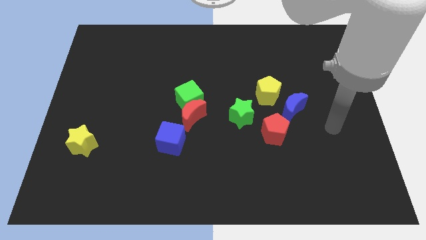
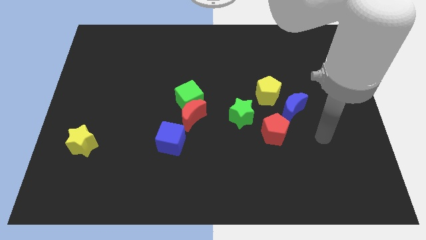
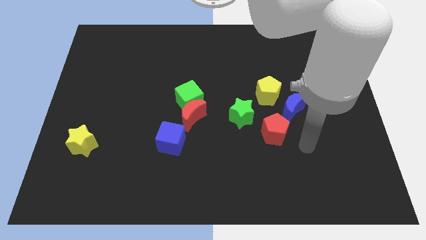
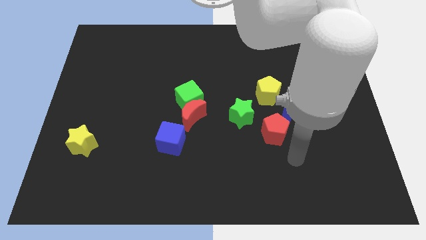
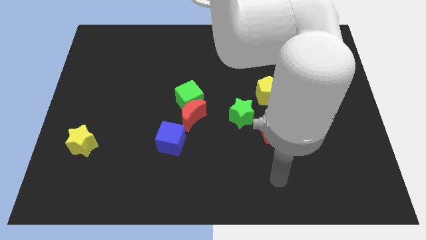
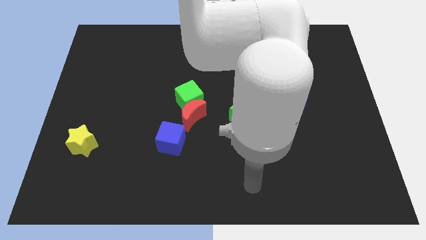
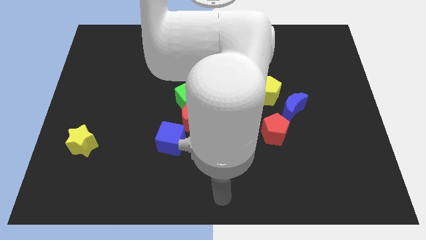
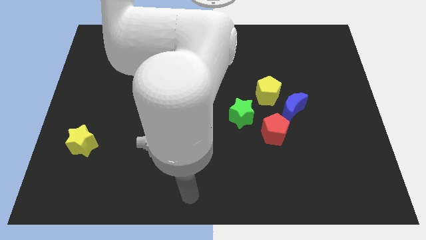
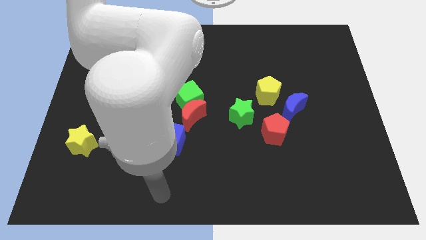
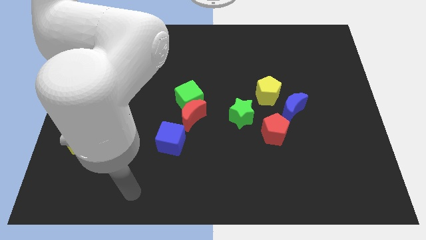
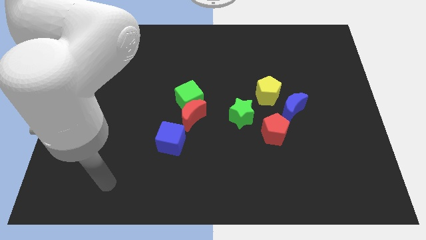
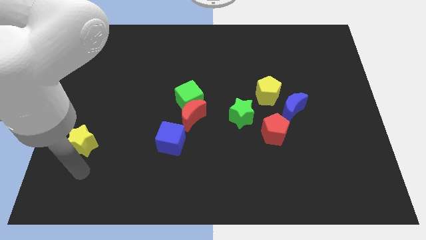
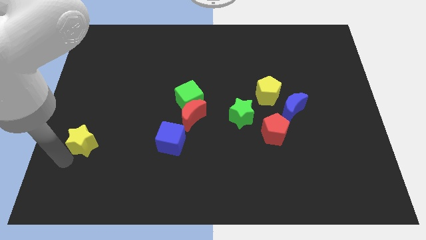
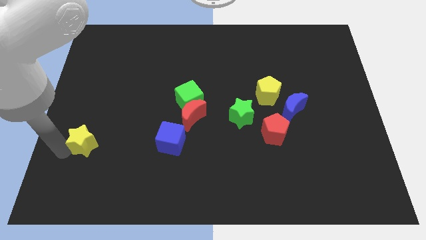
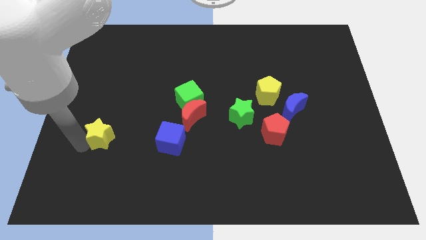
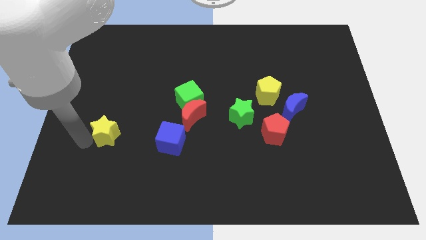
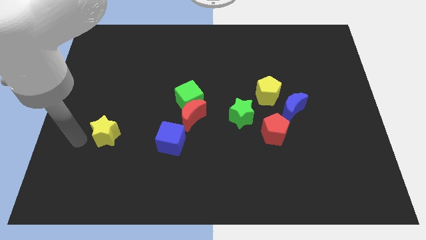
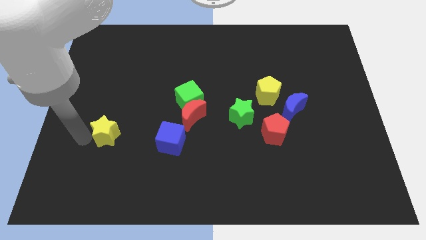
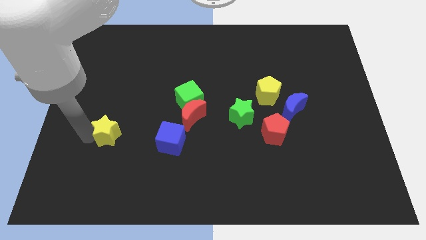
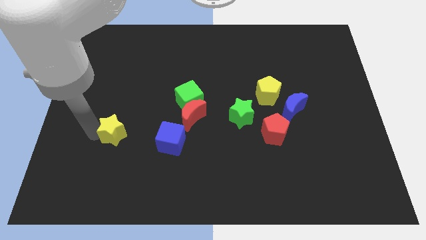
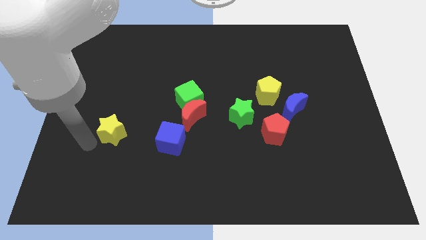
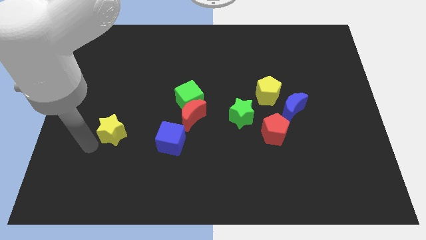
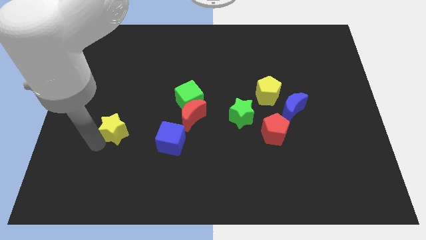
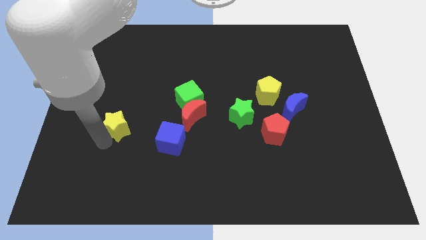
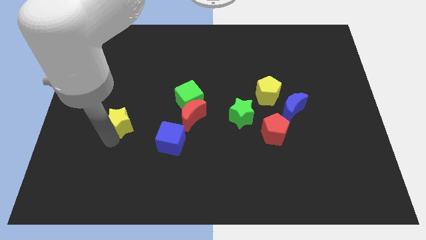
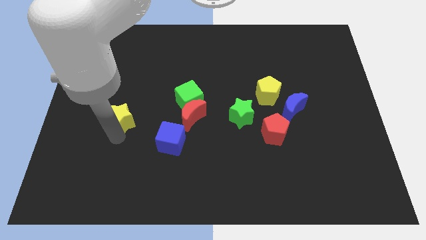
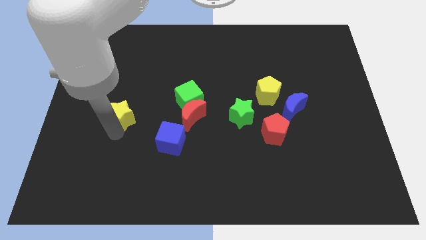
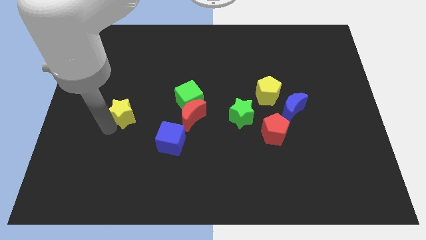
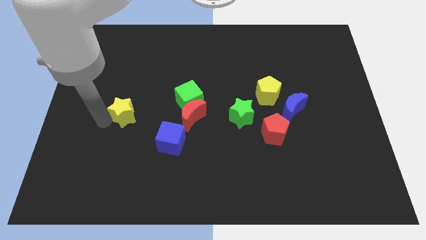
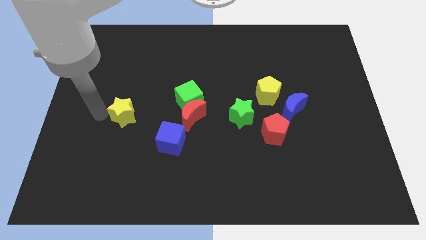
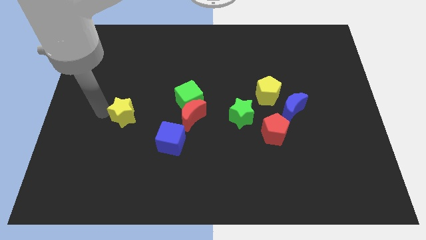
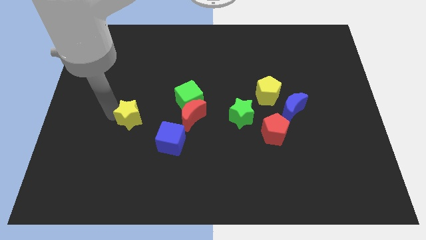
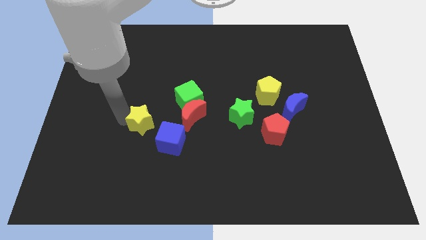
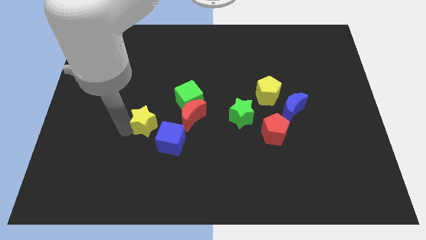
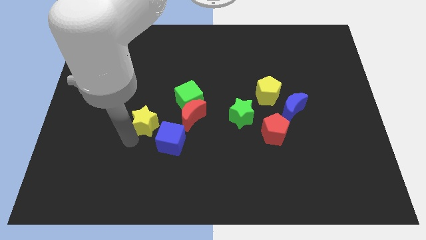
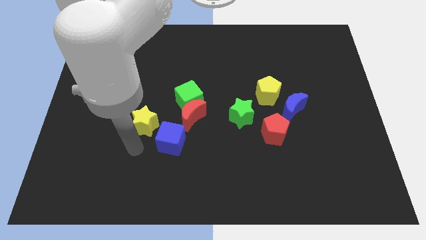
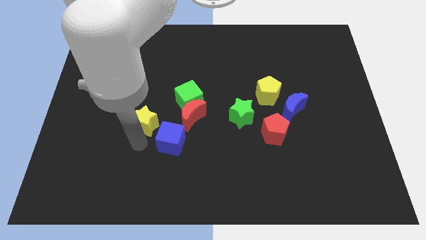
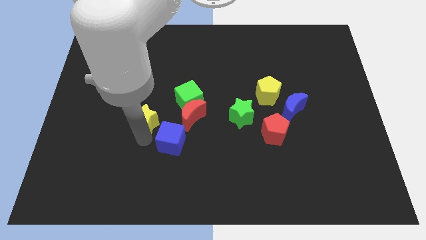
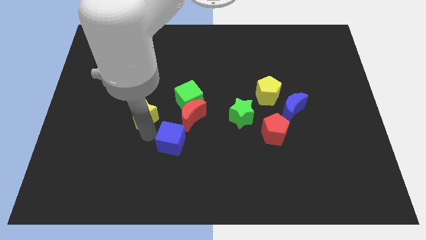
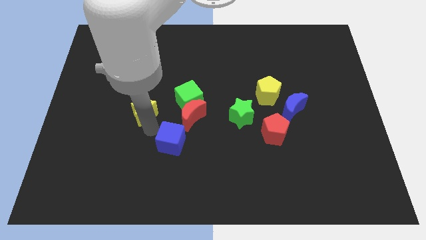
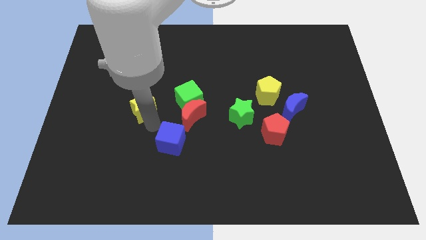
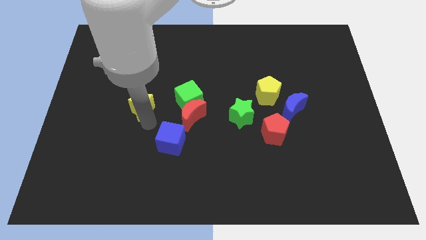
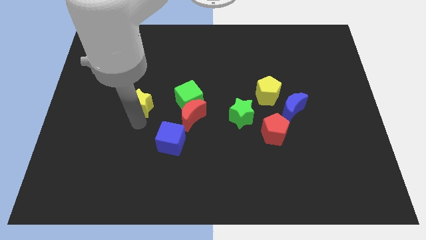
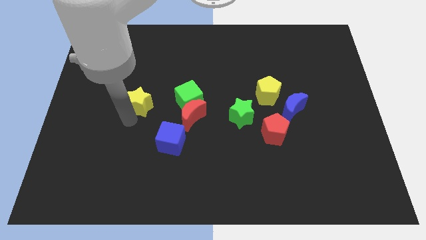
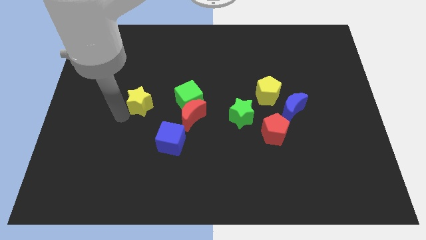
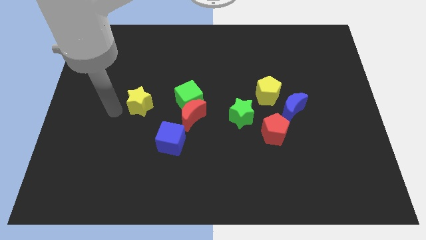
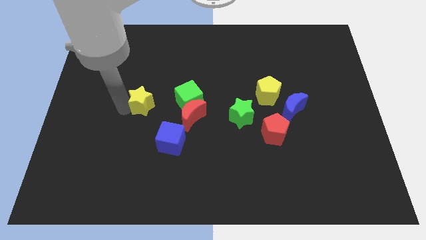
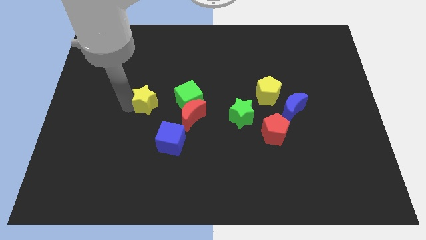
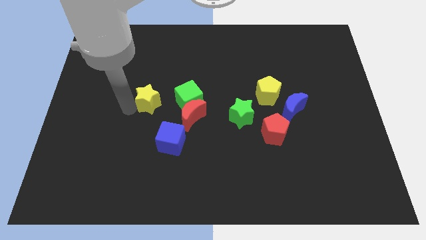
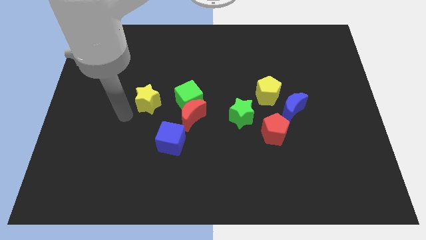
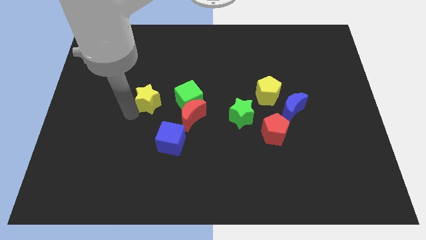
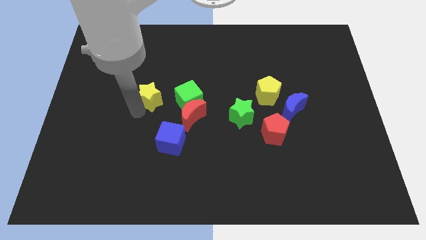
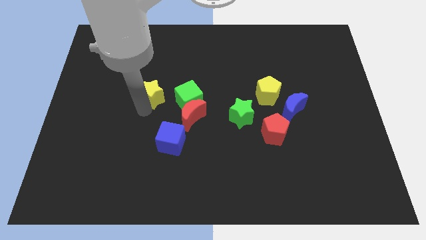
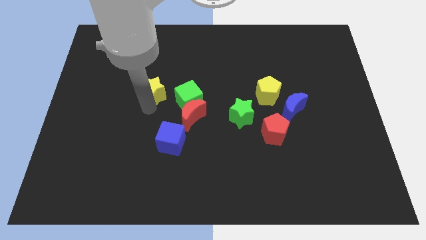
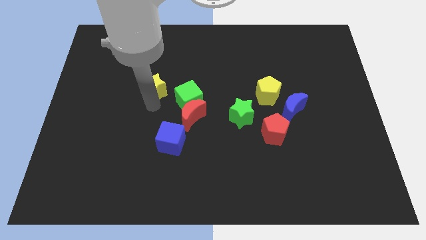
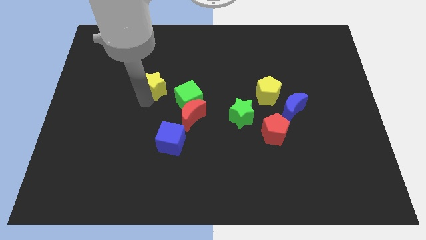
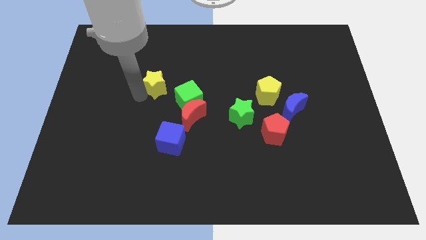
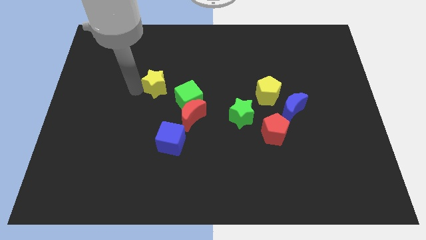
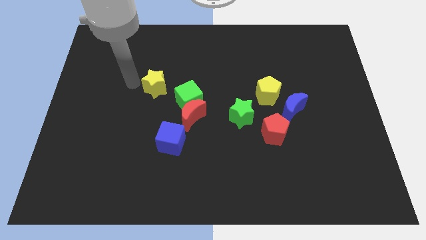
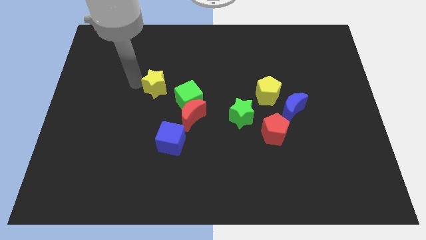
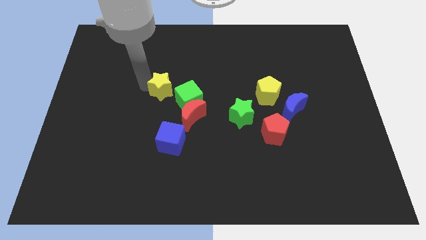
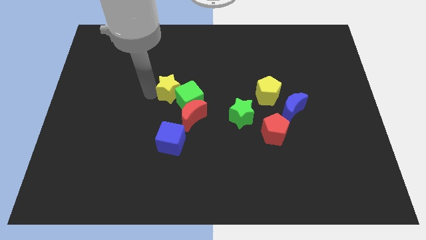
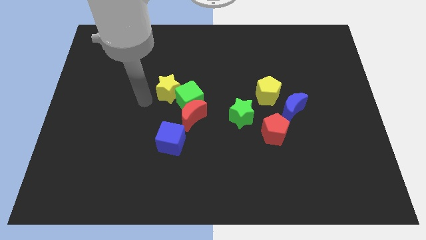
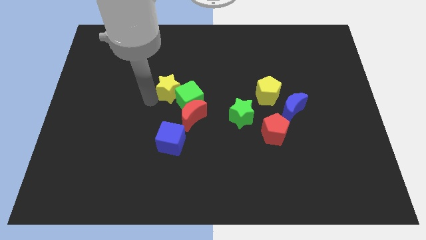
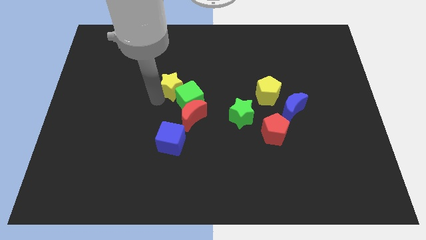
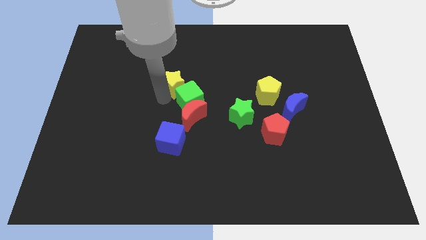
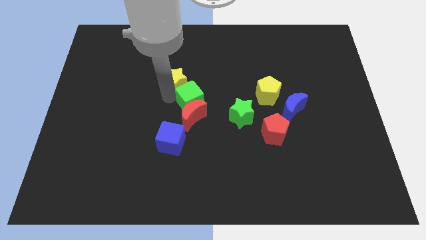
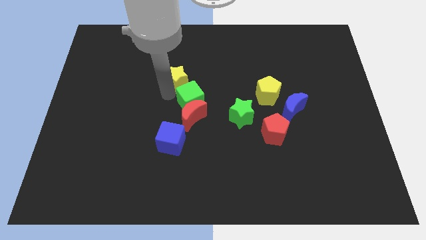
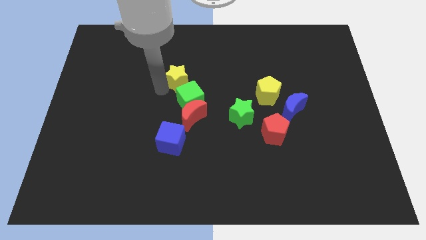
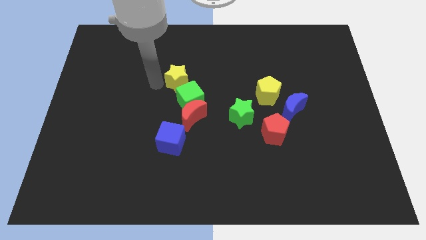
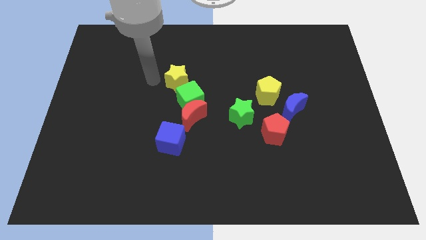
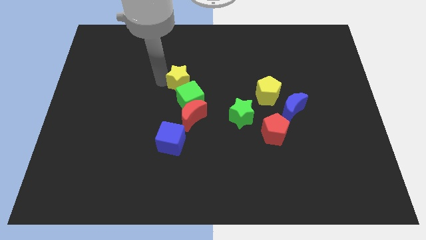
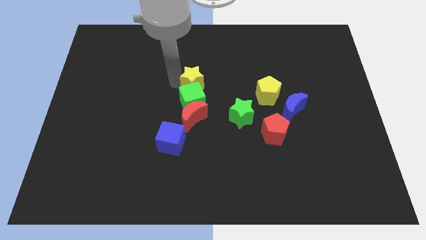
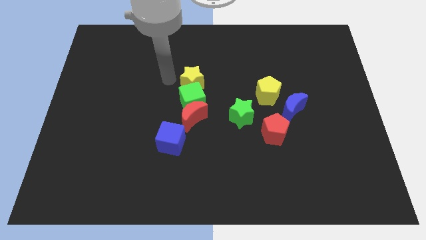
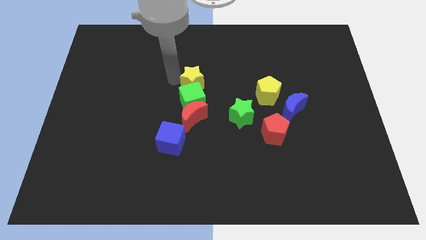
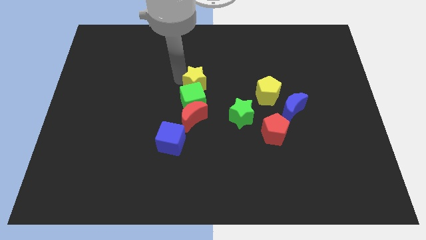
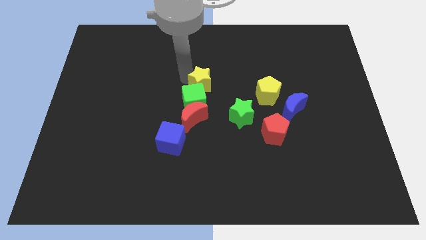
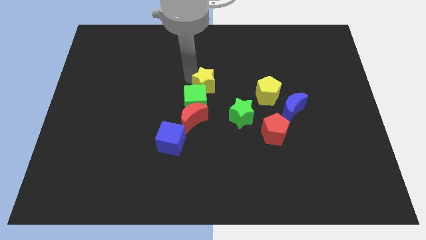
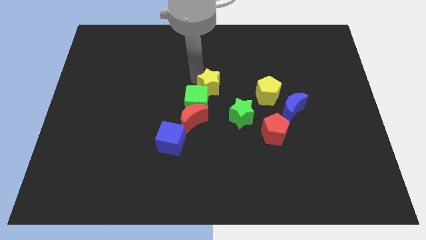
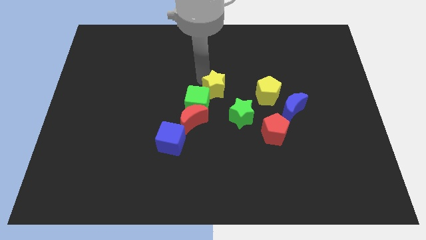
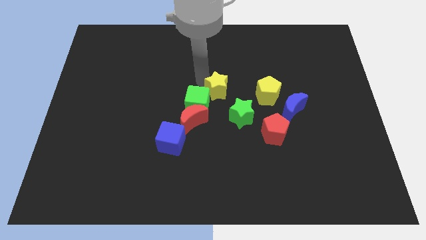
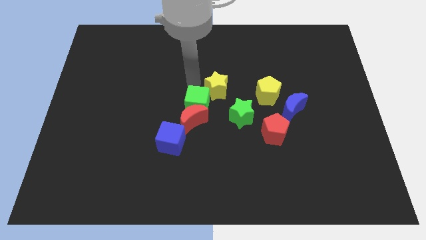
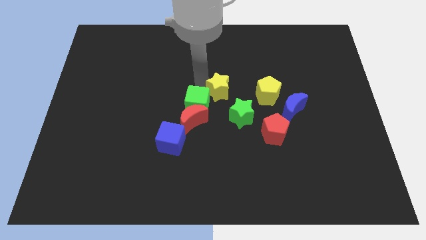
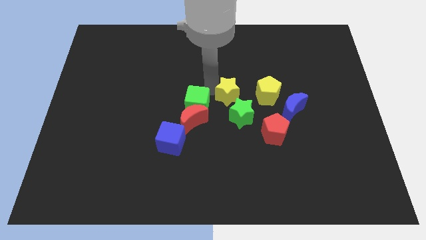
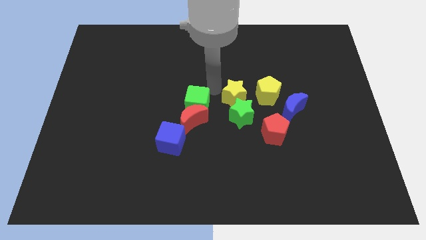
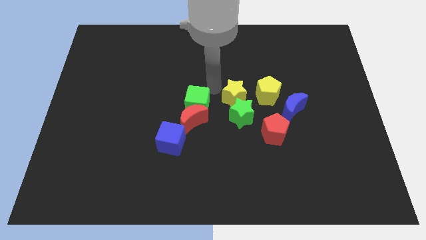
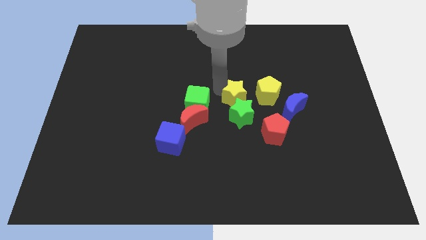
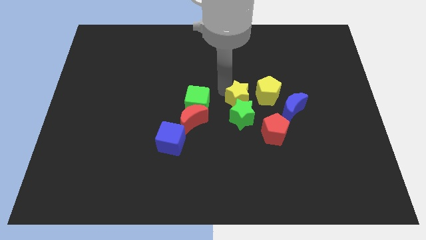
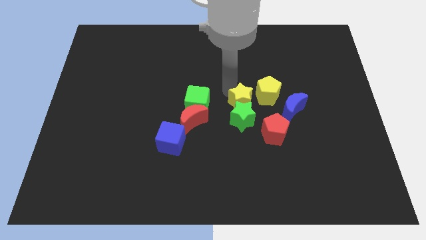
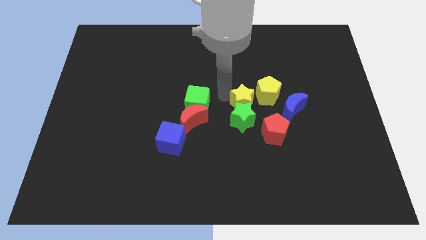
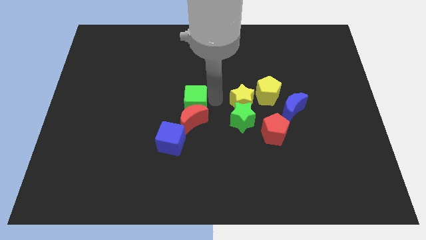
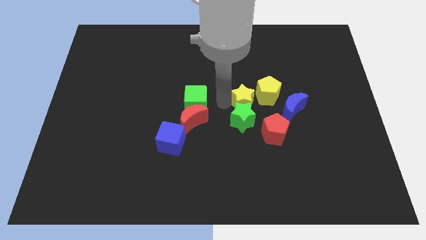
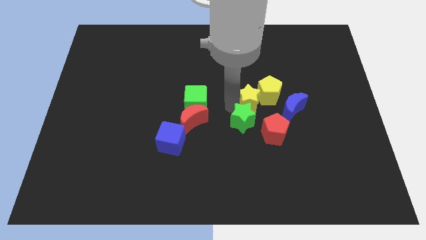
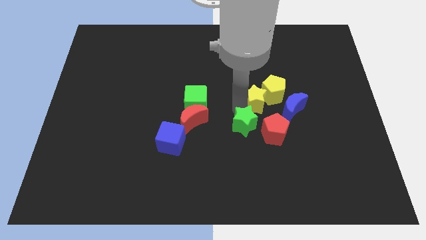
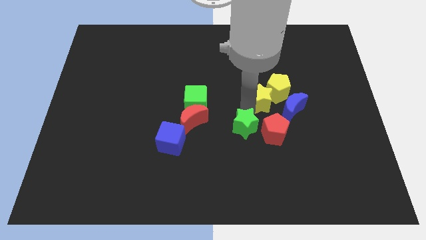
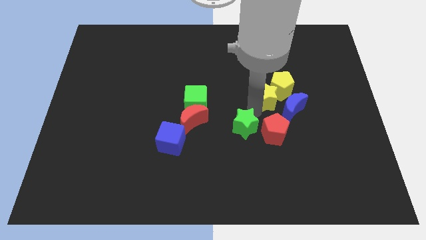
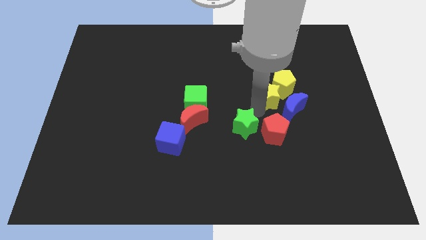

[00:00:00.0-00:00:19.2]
move the yellow star to the blue moon
